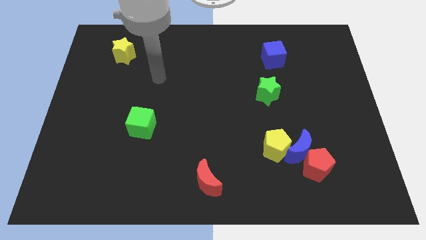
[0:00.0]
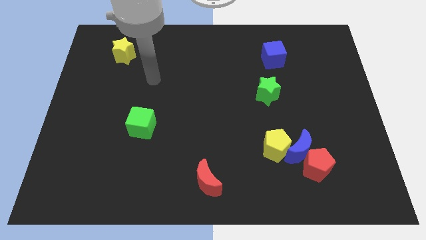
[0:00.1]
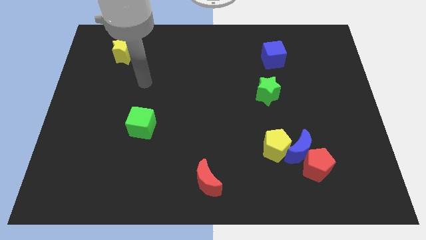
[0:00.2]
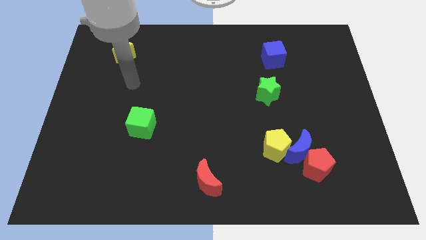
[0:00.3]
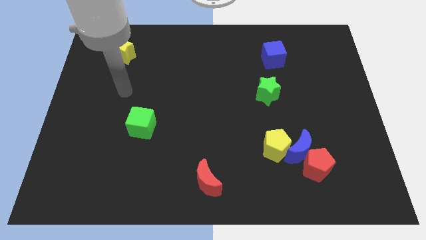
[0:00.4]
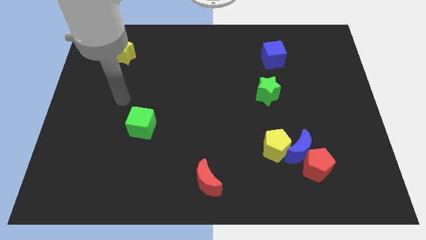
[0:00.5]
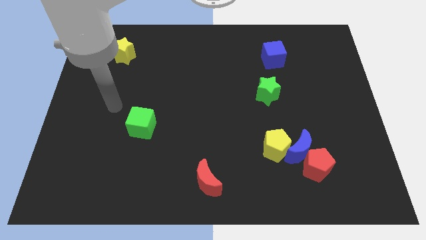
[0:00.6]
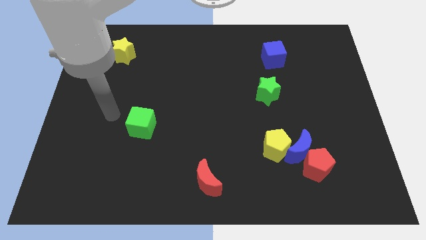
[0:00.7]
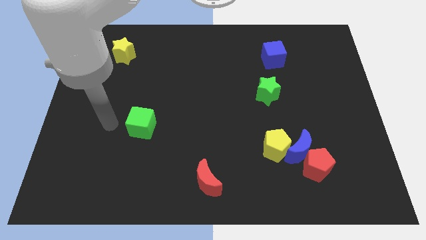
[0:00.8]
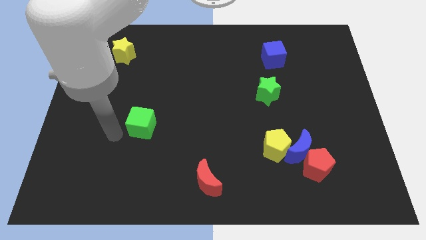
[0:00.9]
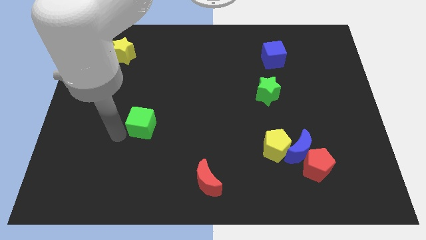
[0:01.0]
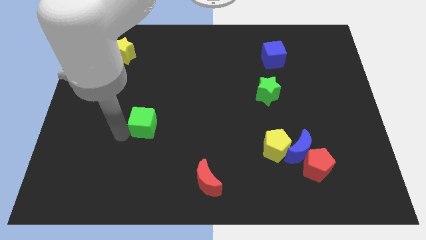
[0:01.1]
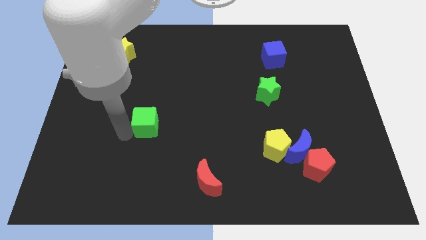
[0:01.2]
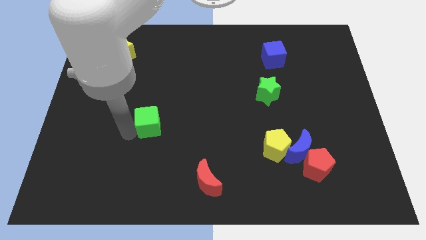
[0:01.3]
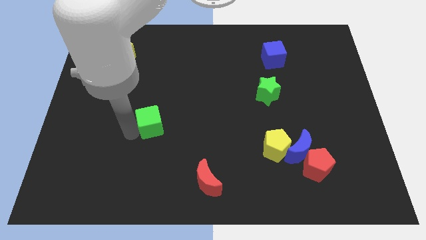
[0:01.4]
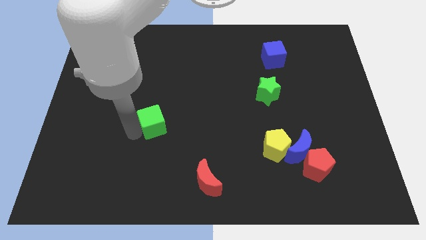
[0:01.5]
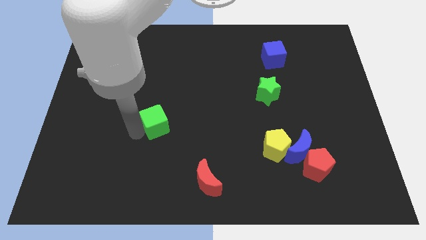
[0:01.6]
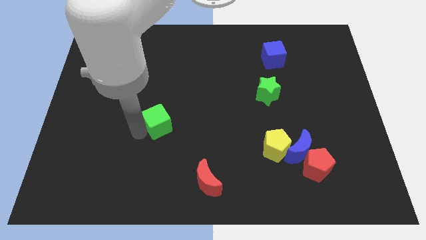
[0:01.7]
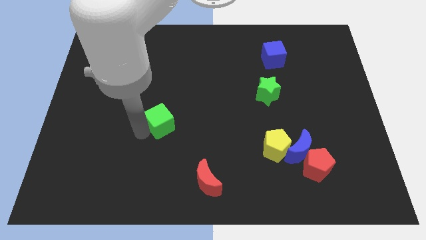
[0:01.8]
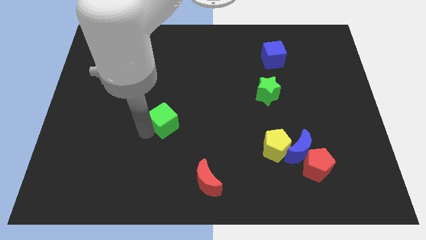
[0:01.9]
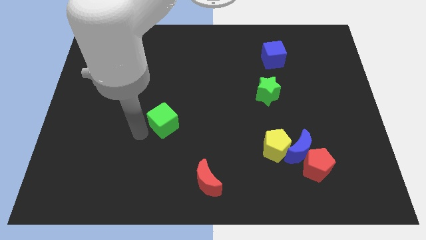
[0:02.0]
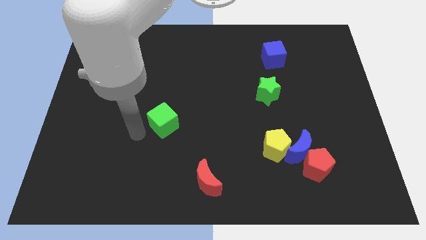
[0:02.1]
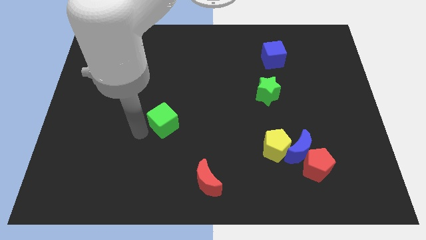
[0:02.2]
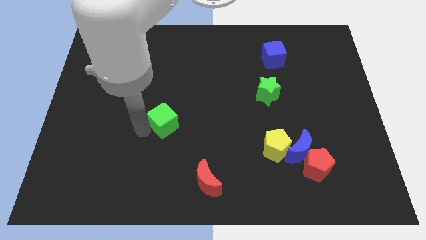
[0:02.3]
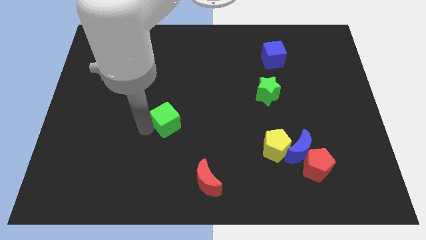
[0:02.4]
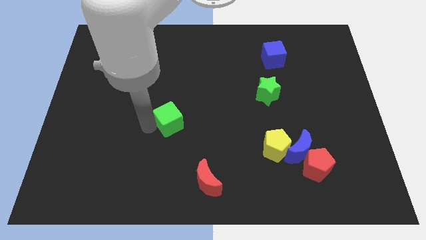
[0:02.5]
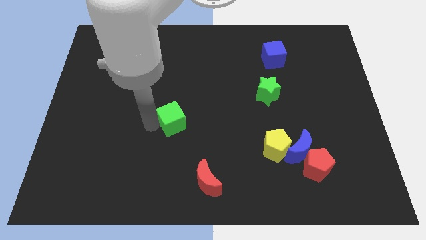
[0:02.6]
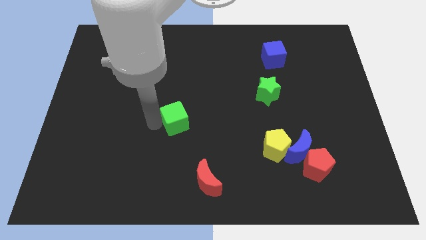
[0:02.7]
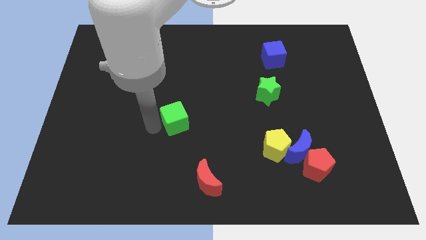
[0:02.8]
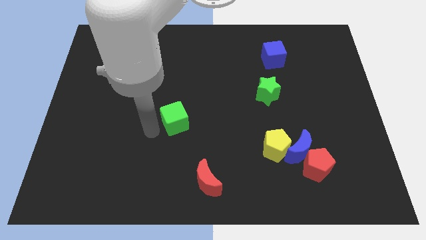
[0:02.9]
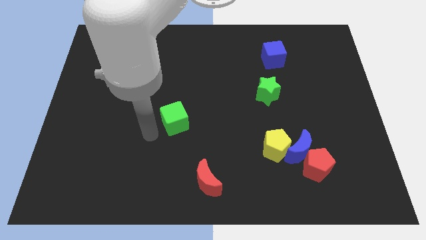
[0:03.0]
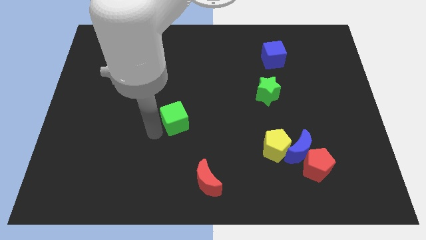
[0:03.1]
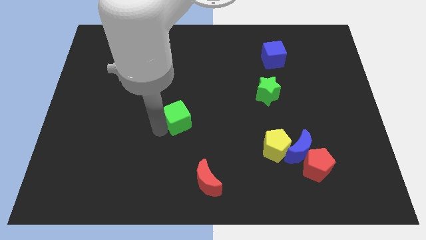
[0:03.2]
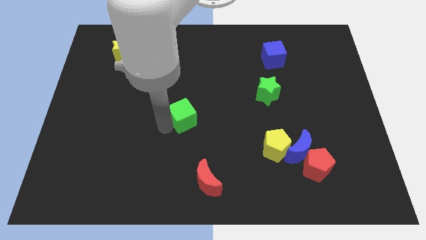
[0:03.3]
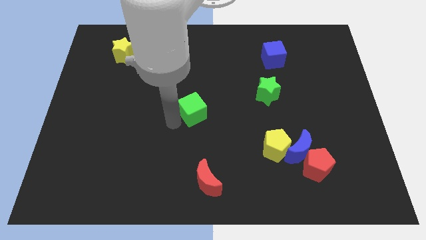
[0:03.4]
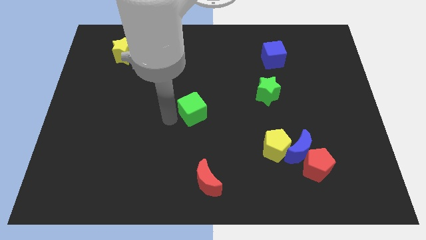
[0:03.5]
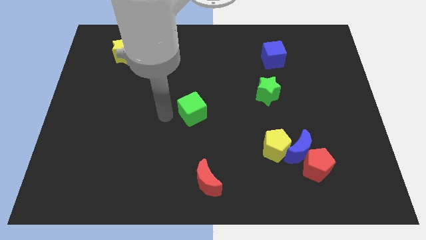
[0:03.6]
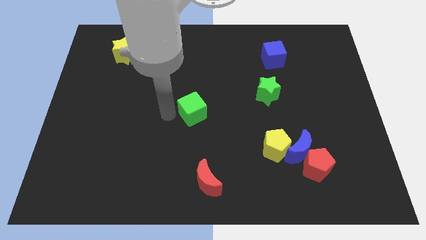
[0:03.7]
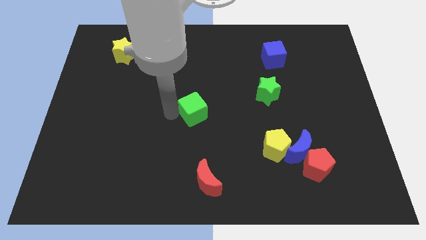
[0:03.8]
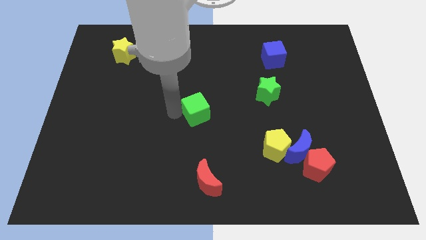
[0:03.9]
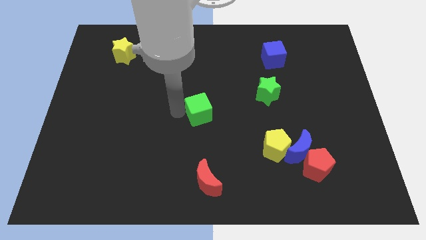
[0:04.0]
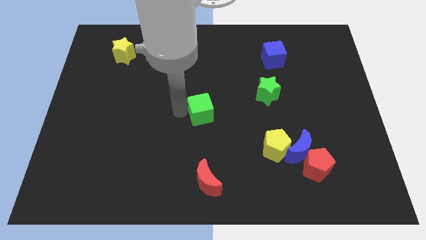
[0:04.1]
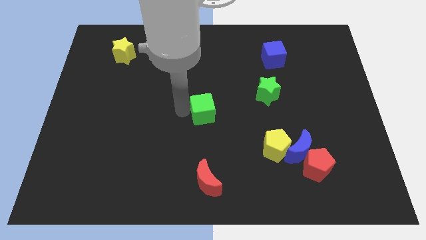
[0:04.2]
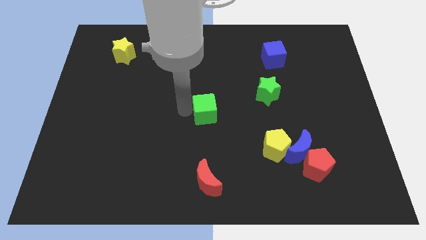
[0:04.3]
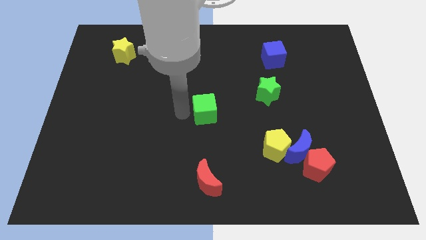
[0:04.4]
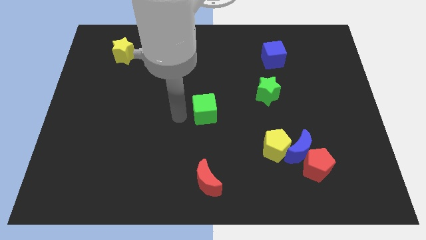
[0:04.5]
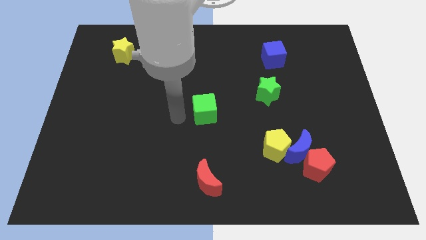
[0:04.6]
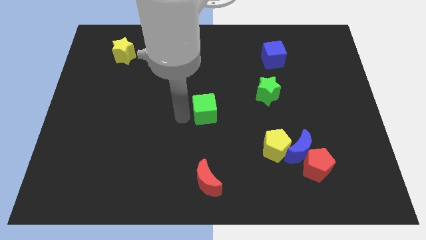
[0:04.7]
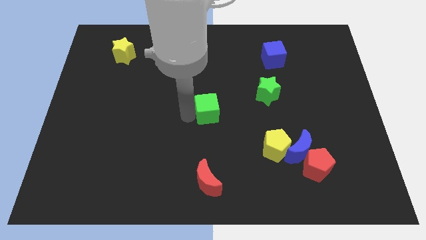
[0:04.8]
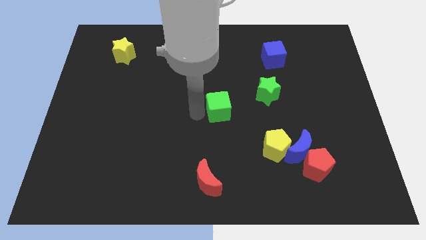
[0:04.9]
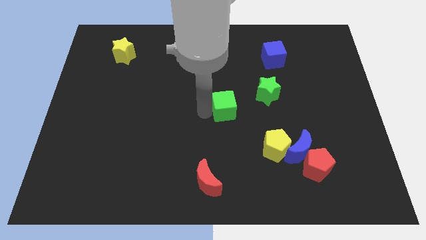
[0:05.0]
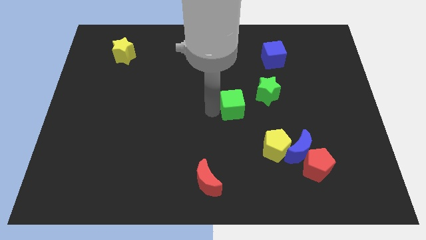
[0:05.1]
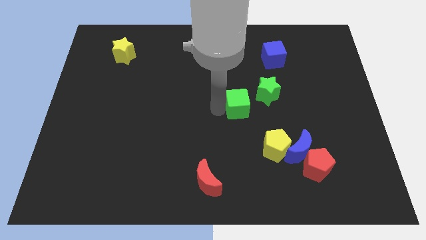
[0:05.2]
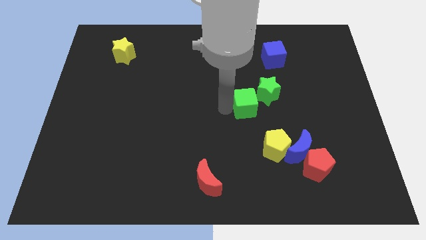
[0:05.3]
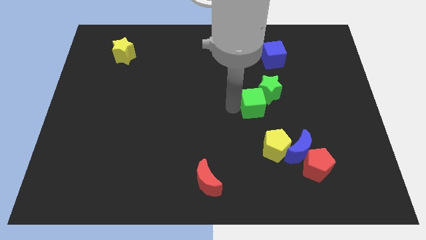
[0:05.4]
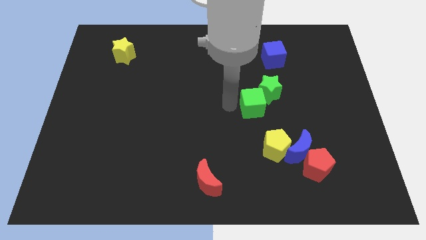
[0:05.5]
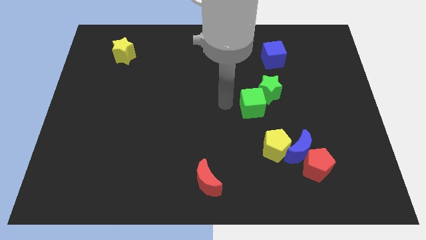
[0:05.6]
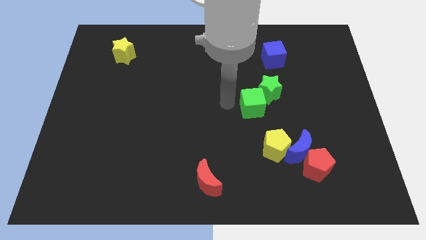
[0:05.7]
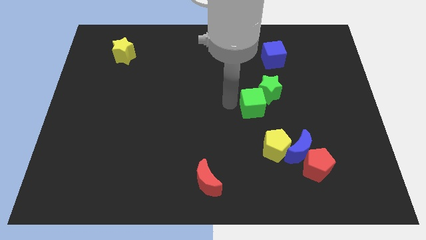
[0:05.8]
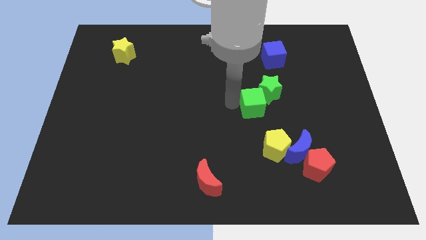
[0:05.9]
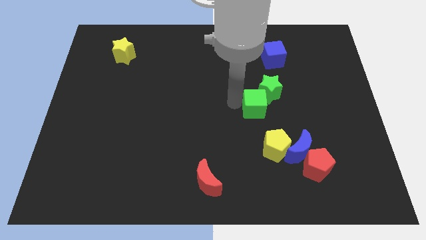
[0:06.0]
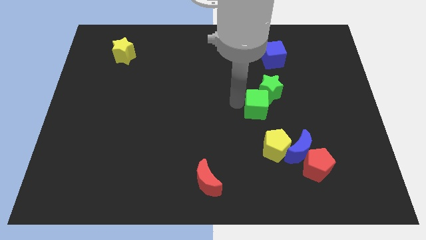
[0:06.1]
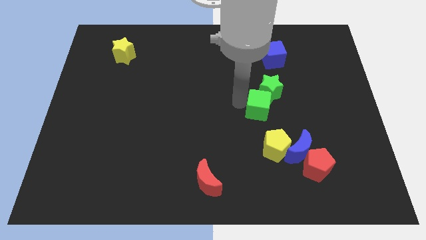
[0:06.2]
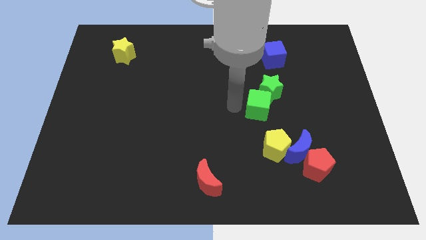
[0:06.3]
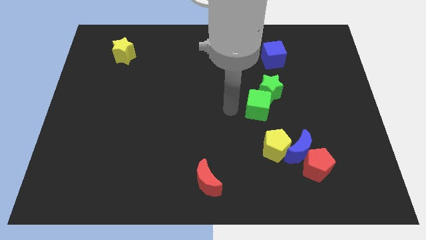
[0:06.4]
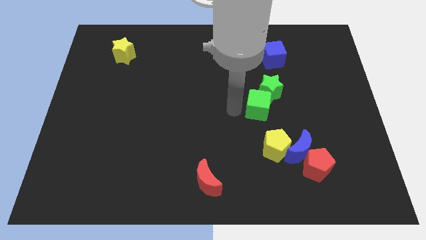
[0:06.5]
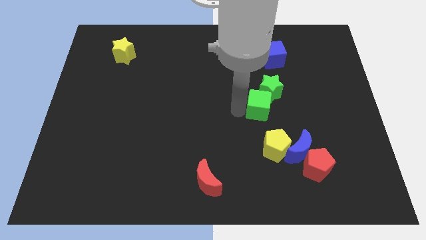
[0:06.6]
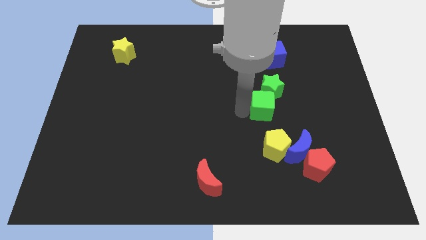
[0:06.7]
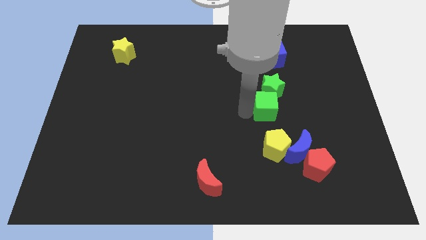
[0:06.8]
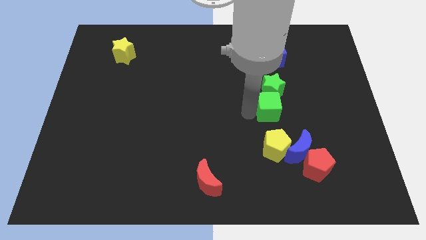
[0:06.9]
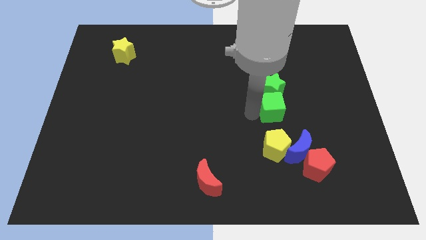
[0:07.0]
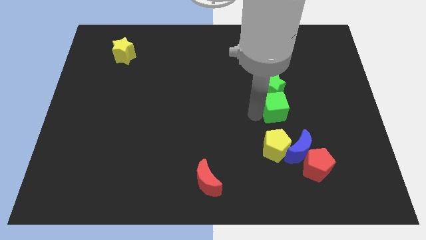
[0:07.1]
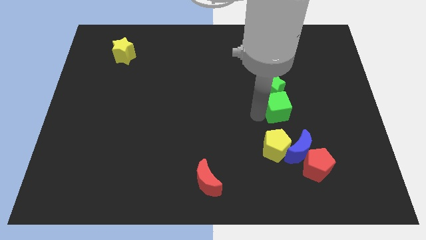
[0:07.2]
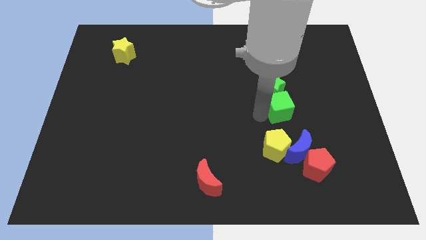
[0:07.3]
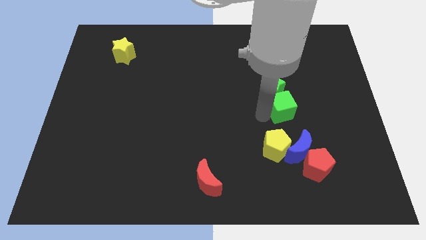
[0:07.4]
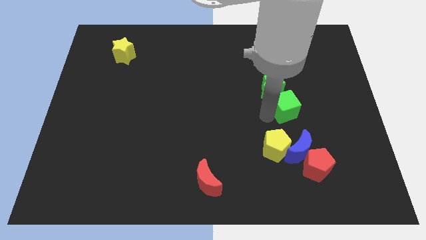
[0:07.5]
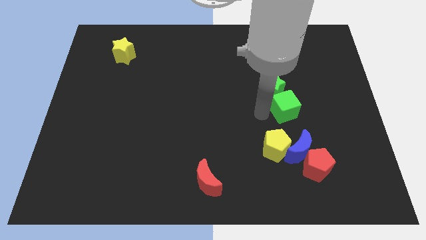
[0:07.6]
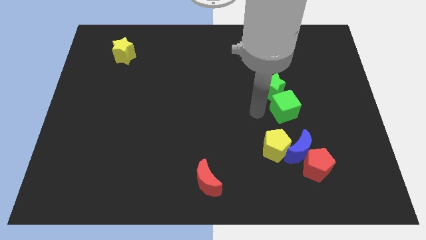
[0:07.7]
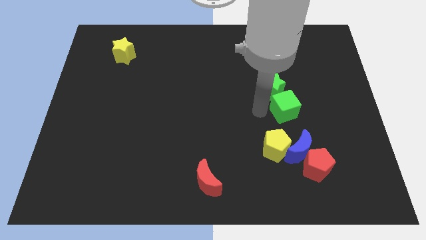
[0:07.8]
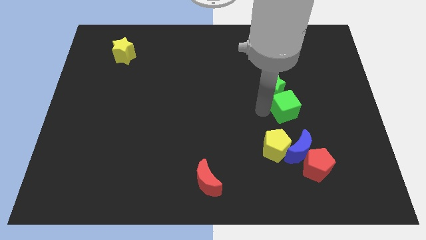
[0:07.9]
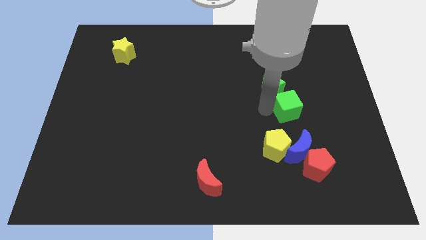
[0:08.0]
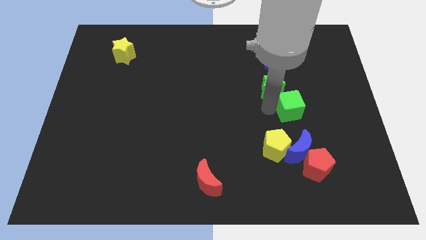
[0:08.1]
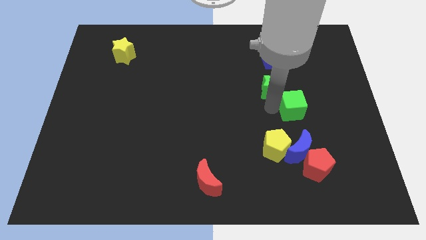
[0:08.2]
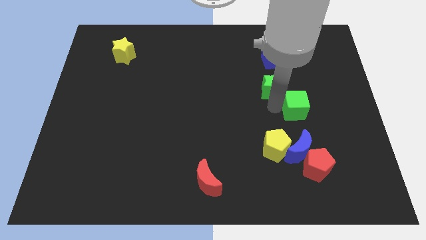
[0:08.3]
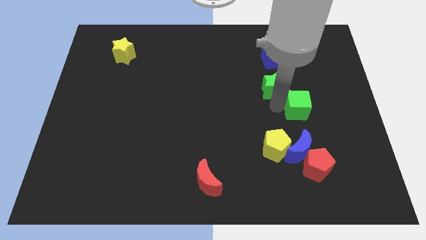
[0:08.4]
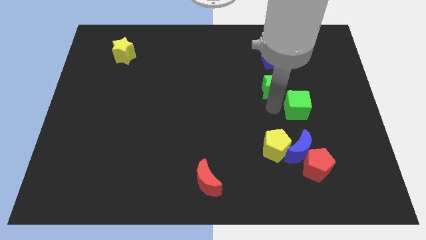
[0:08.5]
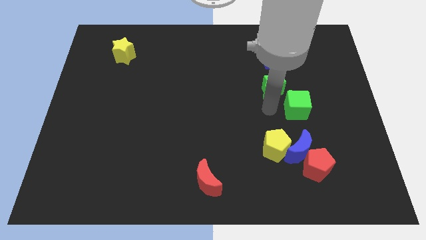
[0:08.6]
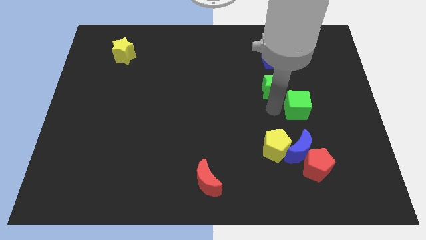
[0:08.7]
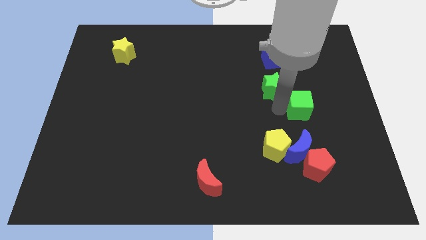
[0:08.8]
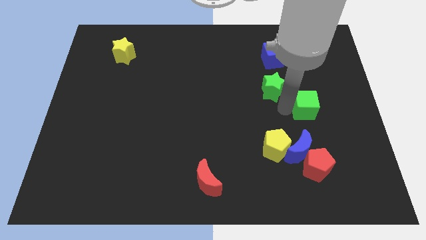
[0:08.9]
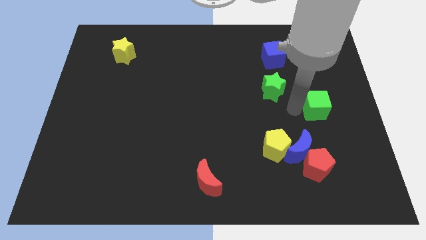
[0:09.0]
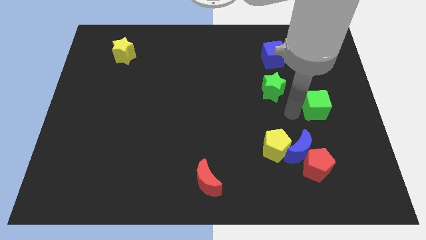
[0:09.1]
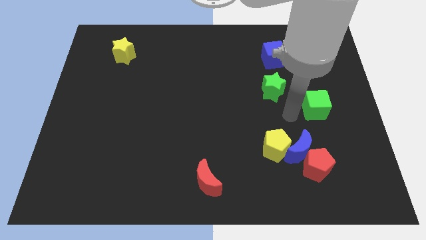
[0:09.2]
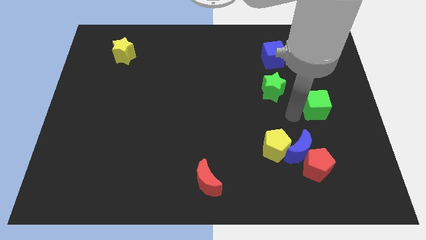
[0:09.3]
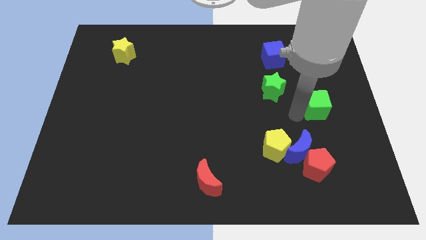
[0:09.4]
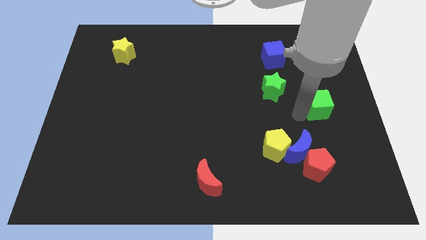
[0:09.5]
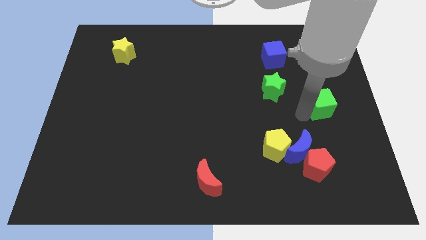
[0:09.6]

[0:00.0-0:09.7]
put the green cube to the center right
